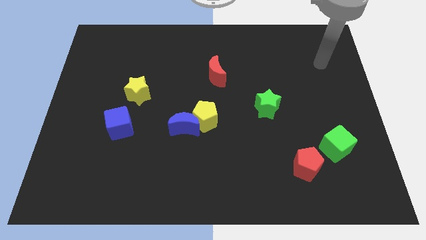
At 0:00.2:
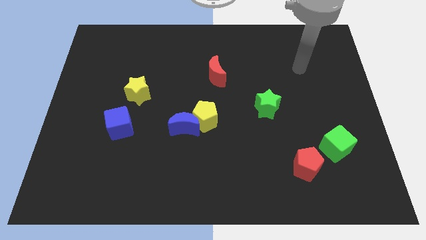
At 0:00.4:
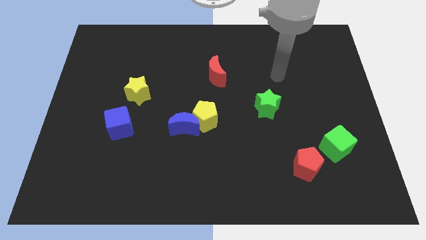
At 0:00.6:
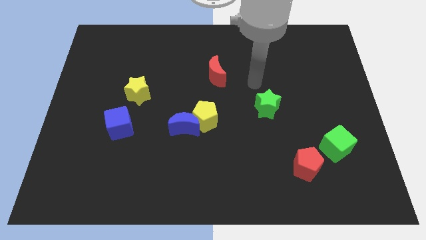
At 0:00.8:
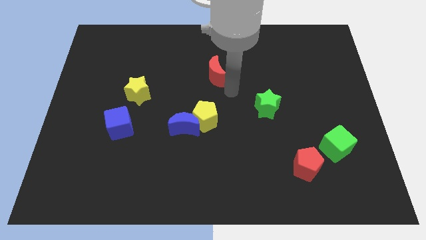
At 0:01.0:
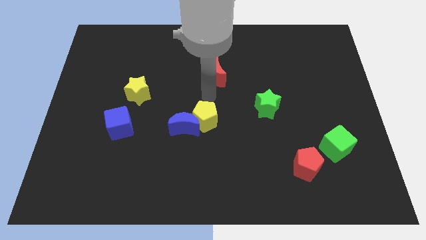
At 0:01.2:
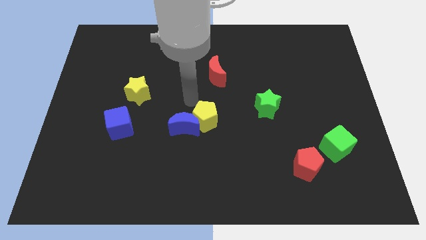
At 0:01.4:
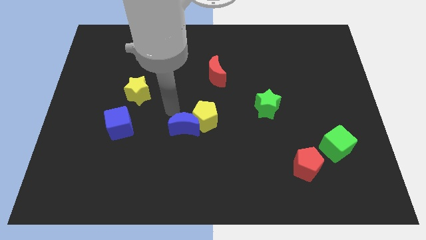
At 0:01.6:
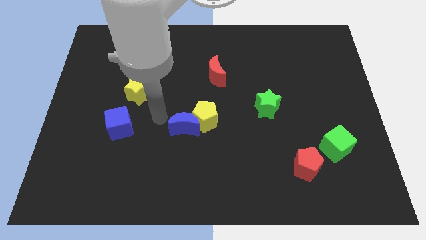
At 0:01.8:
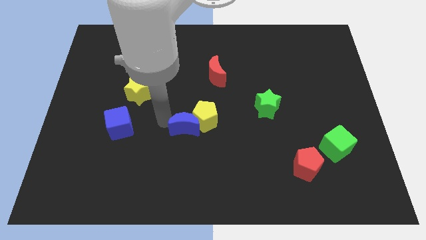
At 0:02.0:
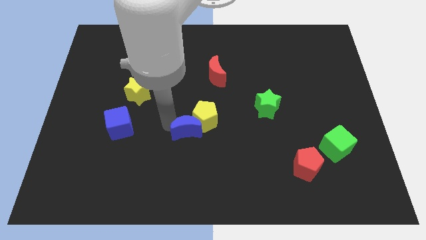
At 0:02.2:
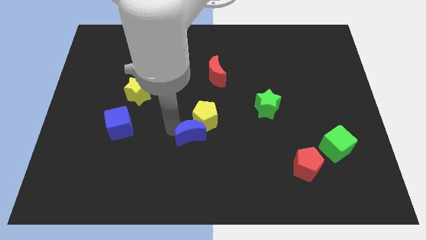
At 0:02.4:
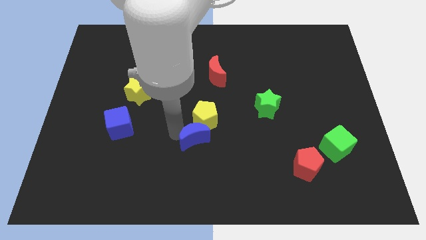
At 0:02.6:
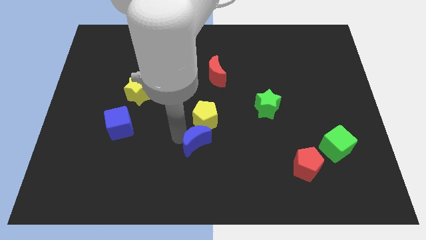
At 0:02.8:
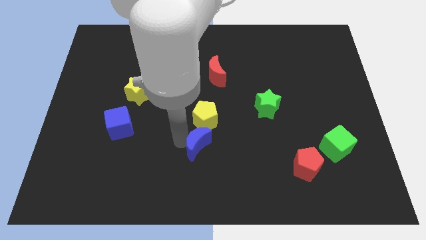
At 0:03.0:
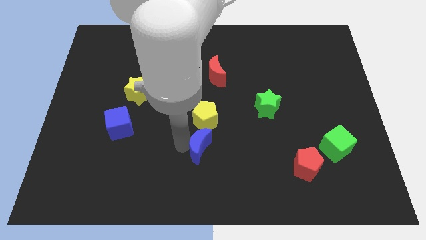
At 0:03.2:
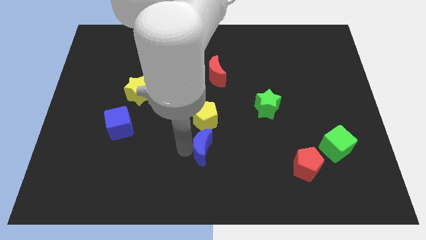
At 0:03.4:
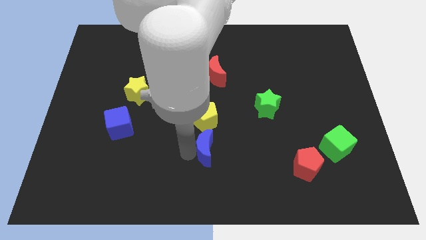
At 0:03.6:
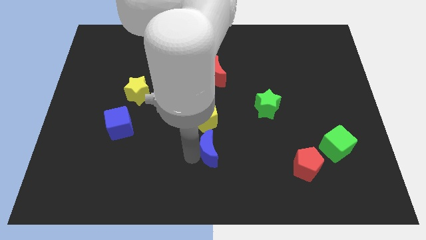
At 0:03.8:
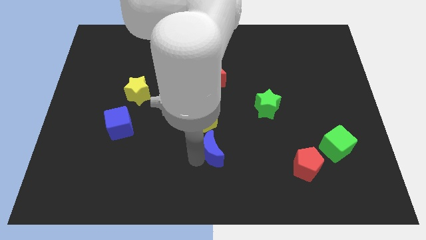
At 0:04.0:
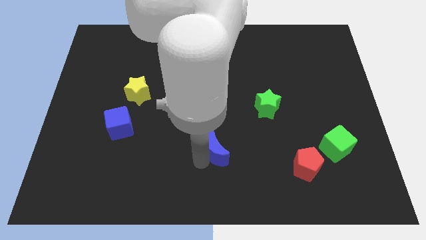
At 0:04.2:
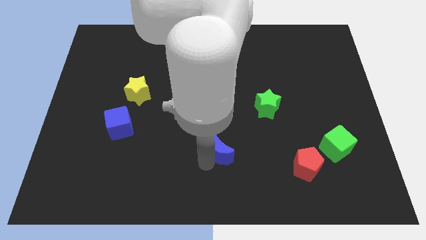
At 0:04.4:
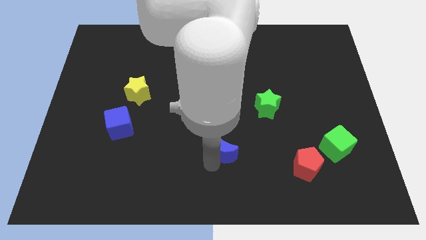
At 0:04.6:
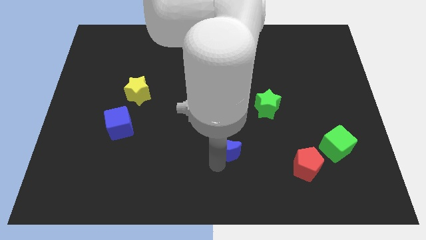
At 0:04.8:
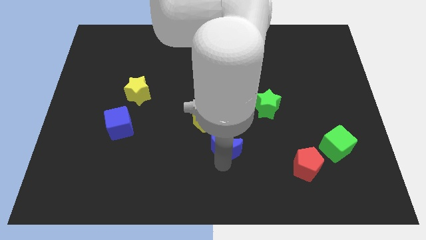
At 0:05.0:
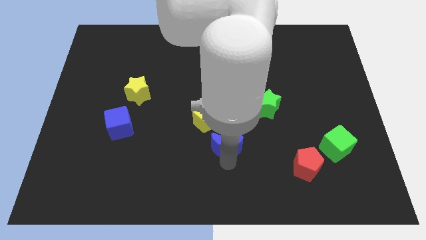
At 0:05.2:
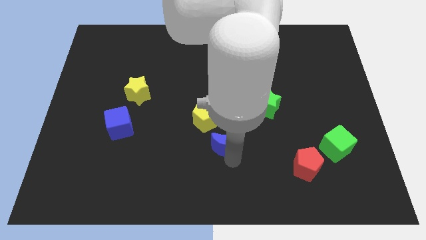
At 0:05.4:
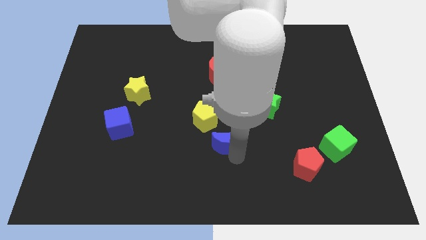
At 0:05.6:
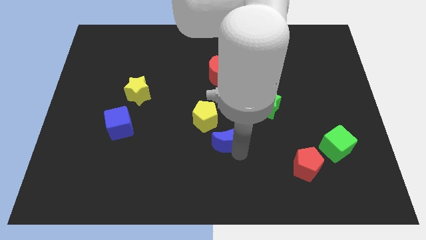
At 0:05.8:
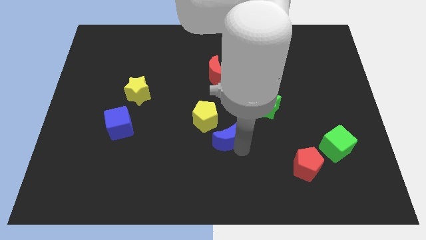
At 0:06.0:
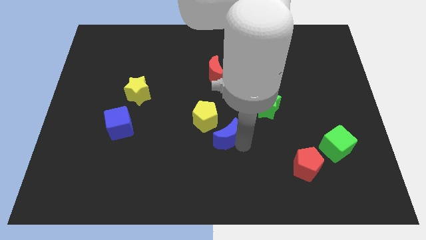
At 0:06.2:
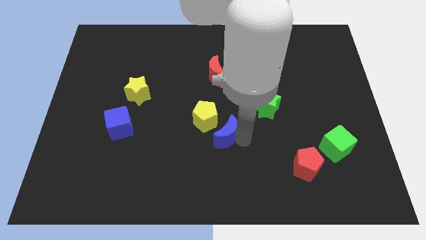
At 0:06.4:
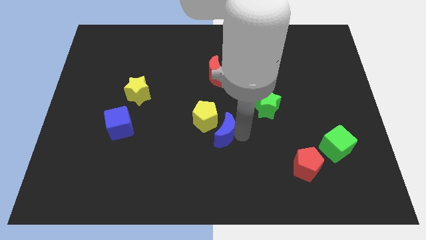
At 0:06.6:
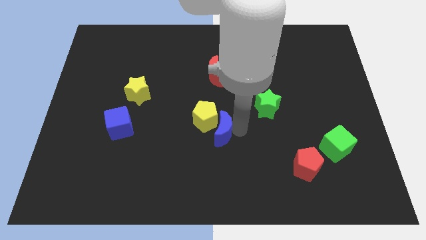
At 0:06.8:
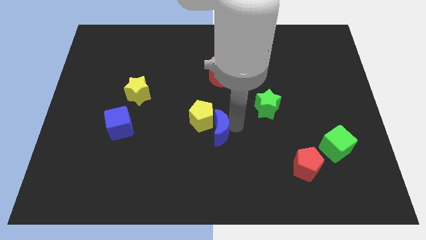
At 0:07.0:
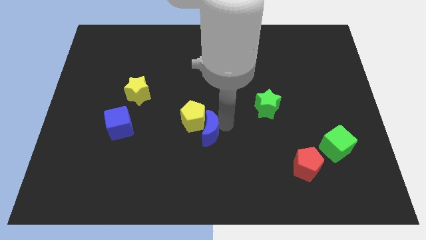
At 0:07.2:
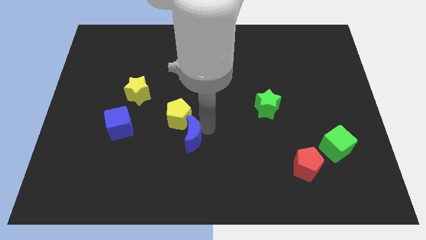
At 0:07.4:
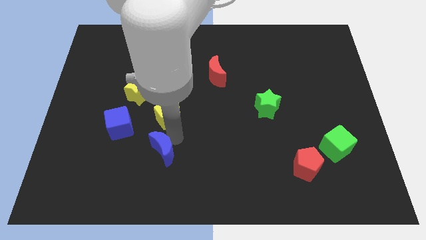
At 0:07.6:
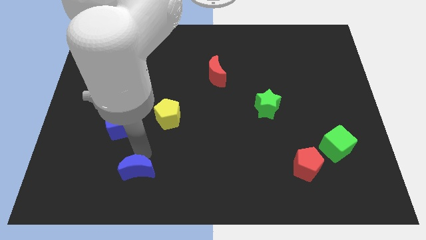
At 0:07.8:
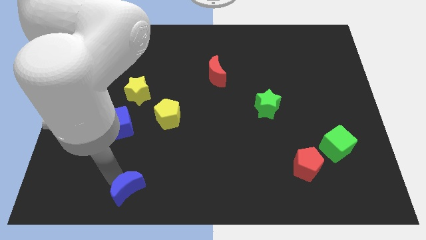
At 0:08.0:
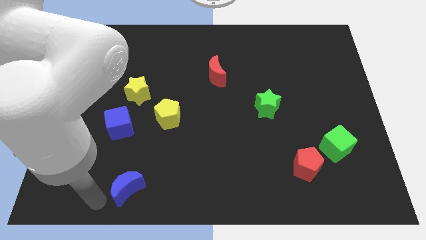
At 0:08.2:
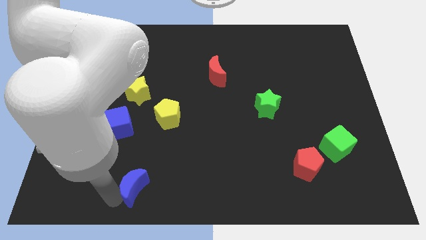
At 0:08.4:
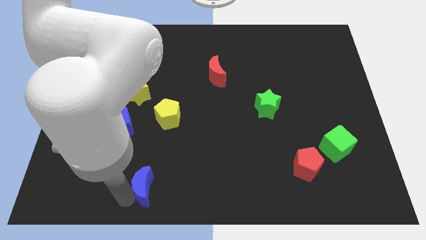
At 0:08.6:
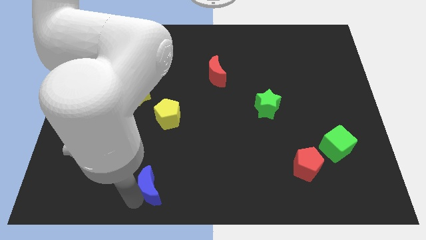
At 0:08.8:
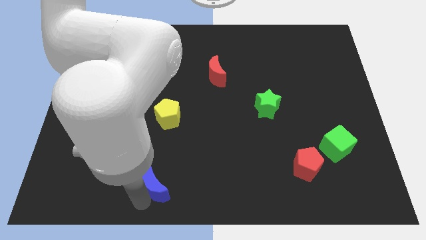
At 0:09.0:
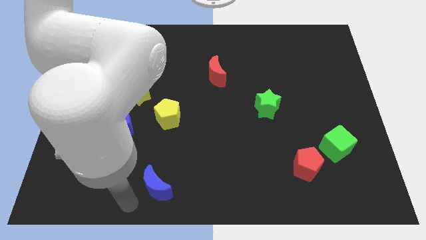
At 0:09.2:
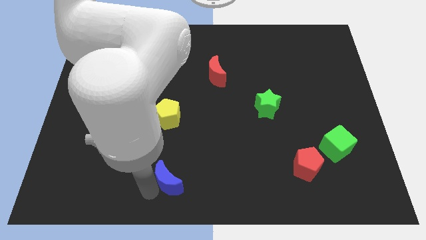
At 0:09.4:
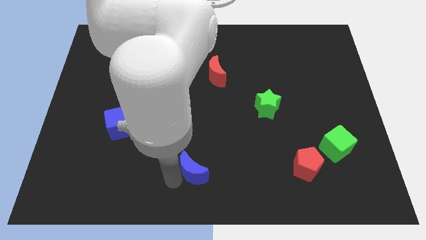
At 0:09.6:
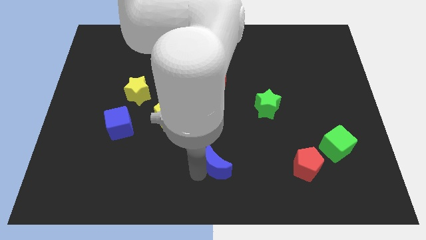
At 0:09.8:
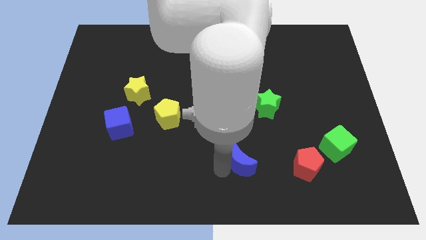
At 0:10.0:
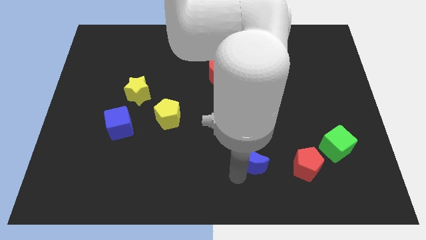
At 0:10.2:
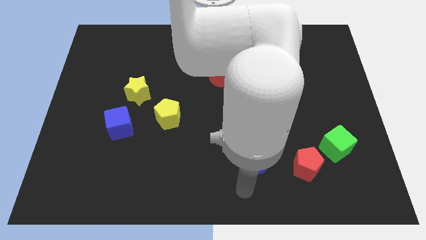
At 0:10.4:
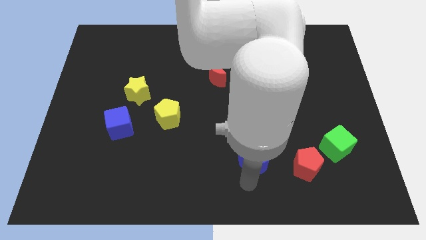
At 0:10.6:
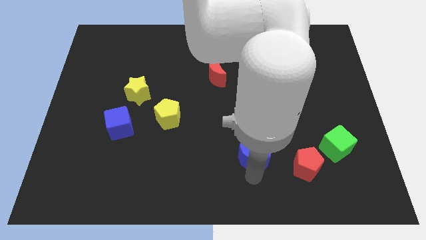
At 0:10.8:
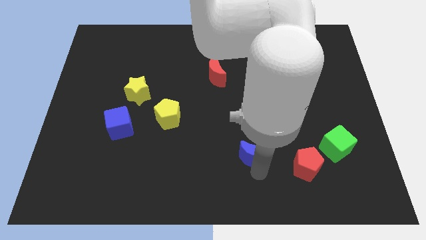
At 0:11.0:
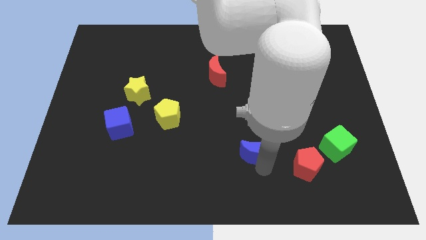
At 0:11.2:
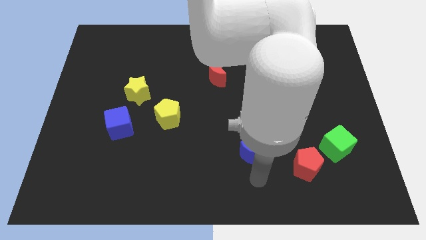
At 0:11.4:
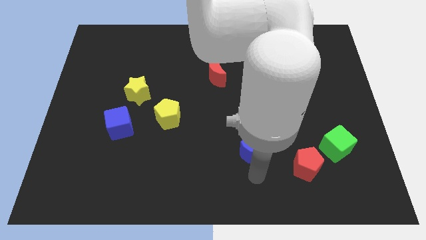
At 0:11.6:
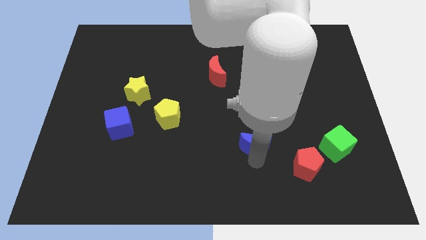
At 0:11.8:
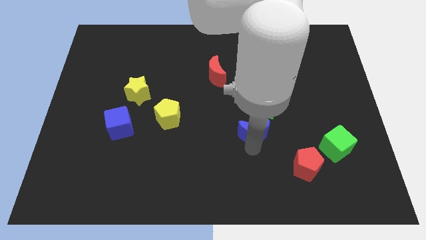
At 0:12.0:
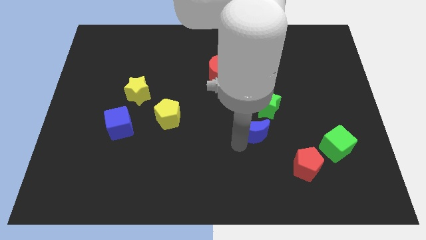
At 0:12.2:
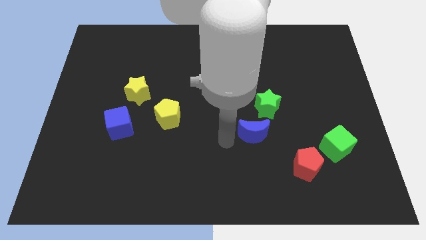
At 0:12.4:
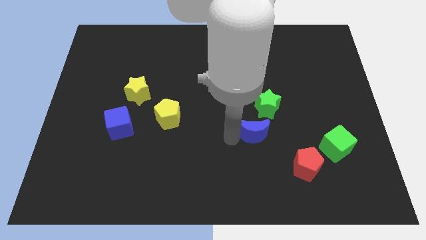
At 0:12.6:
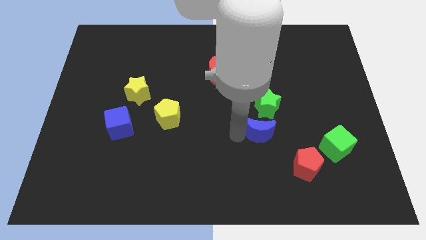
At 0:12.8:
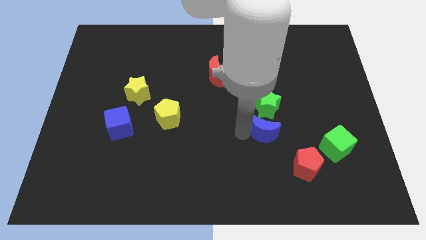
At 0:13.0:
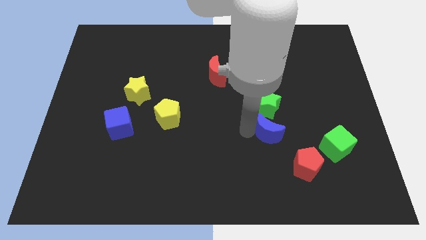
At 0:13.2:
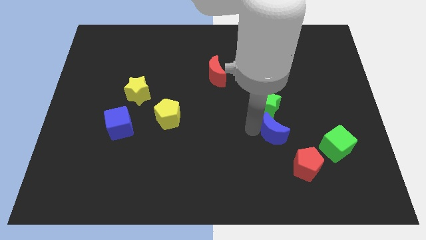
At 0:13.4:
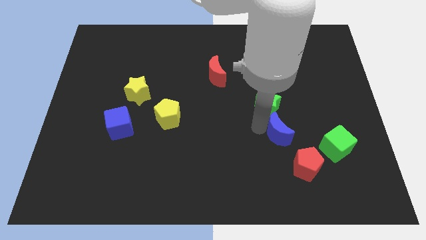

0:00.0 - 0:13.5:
slide the blue moon to the top side of the red pentagon
